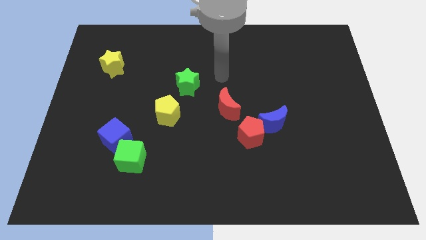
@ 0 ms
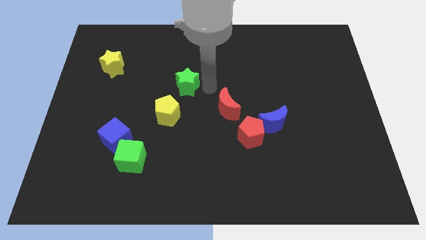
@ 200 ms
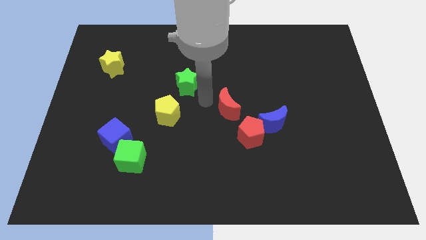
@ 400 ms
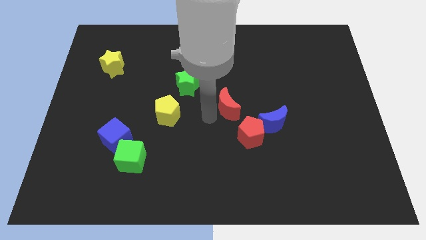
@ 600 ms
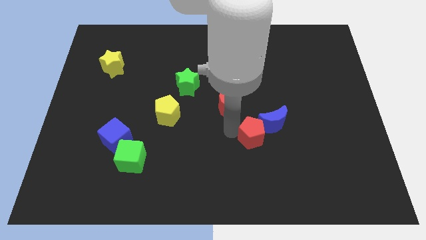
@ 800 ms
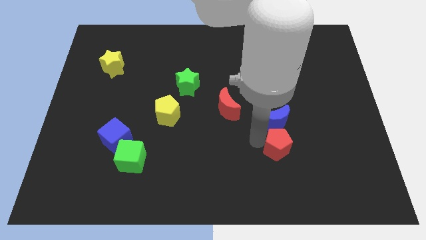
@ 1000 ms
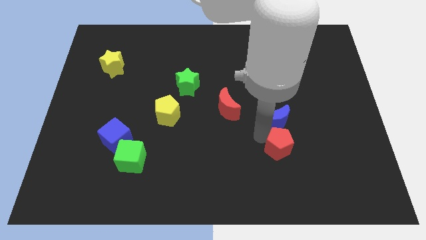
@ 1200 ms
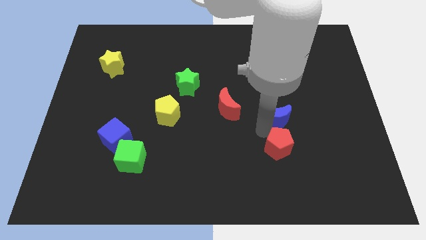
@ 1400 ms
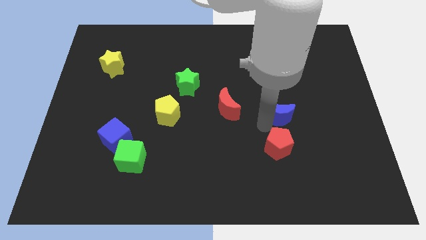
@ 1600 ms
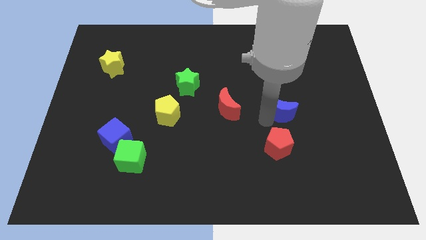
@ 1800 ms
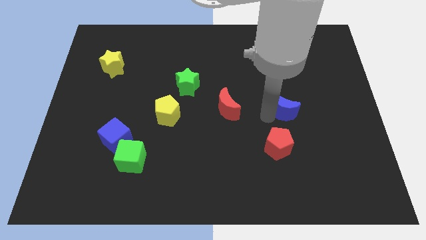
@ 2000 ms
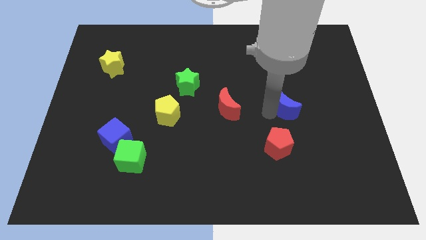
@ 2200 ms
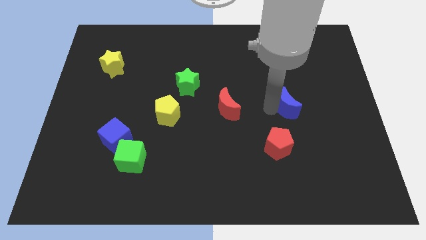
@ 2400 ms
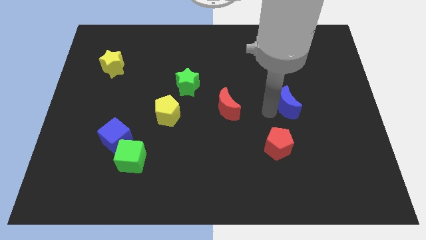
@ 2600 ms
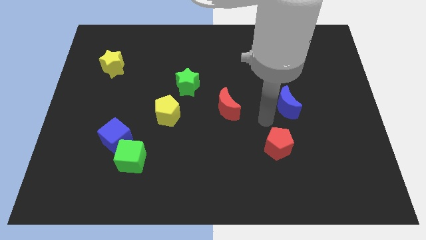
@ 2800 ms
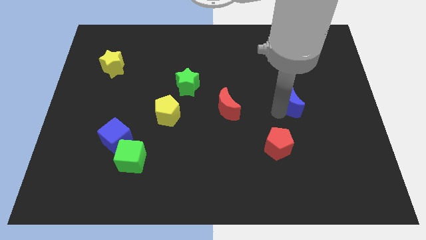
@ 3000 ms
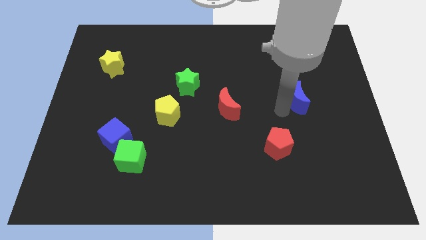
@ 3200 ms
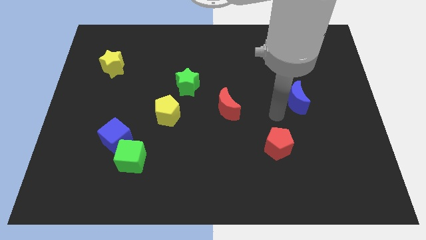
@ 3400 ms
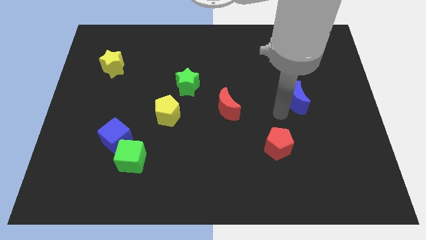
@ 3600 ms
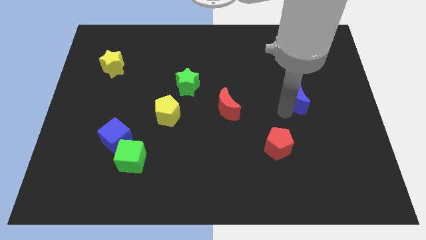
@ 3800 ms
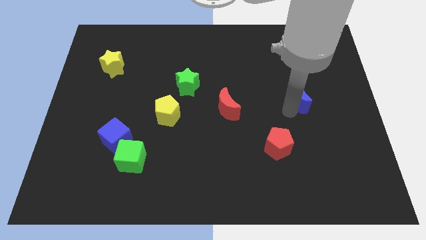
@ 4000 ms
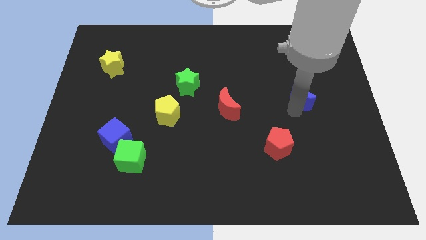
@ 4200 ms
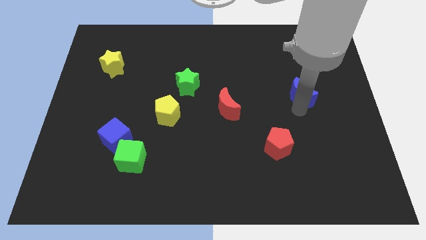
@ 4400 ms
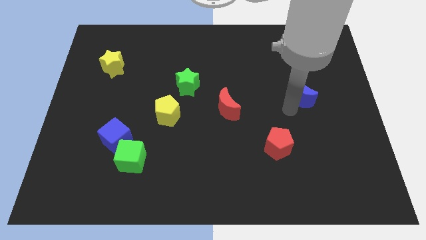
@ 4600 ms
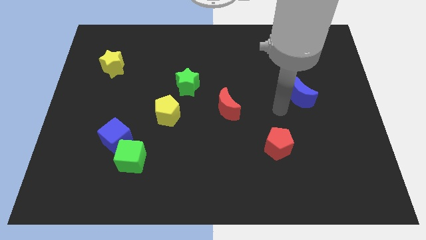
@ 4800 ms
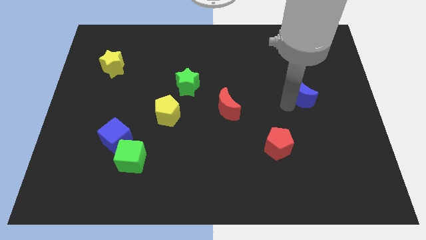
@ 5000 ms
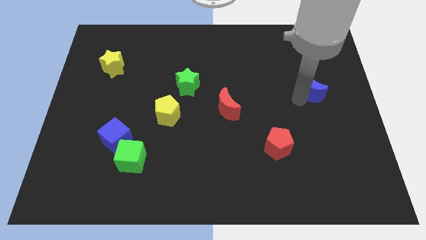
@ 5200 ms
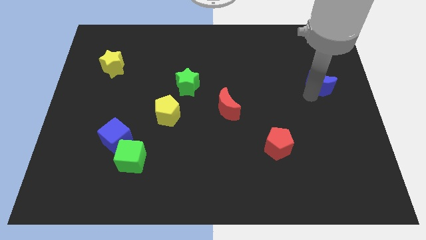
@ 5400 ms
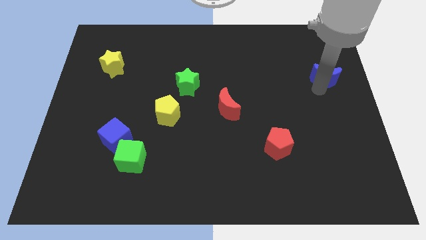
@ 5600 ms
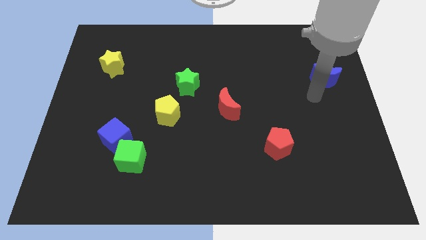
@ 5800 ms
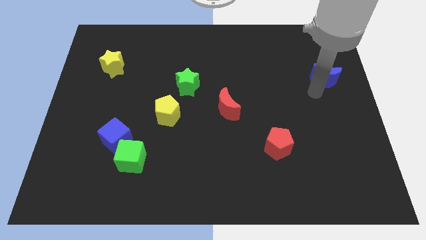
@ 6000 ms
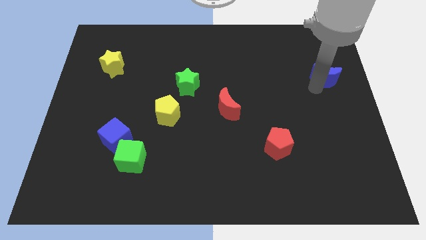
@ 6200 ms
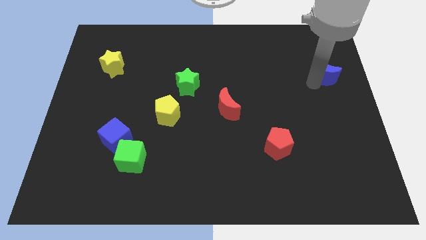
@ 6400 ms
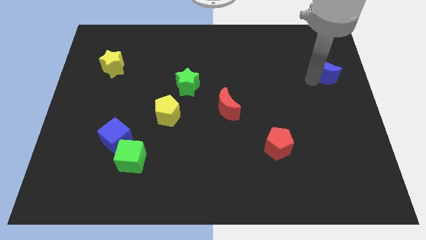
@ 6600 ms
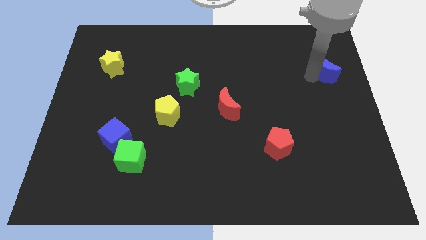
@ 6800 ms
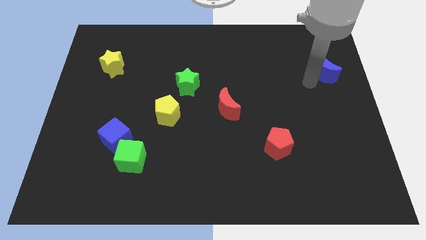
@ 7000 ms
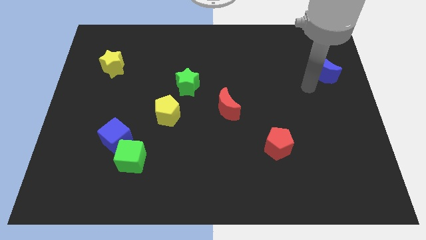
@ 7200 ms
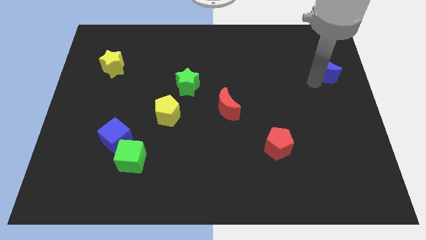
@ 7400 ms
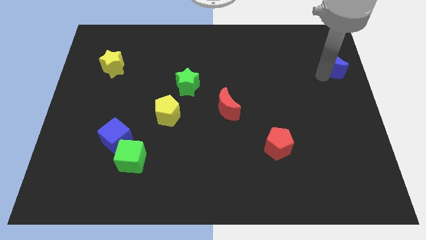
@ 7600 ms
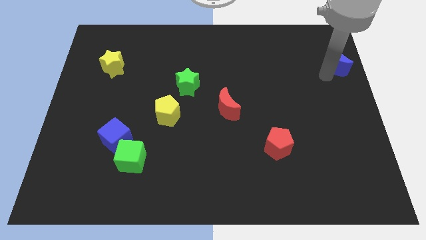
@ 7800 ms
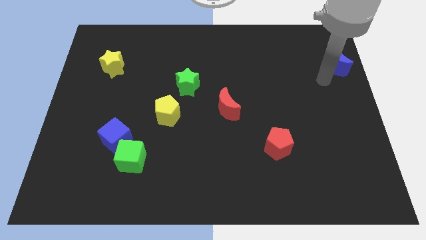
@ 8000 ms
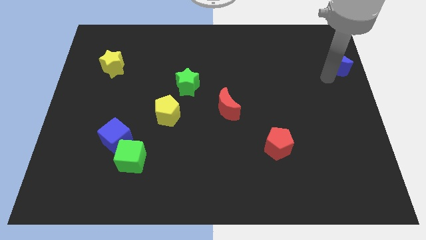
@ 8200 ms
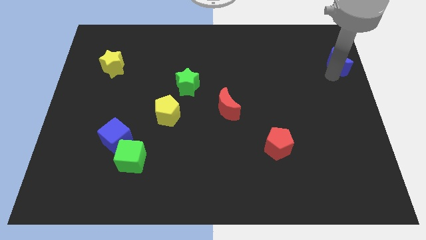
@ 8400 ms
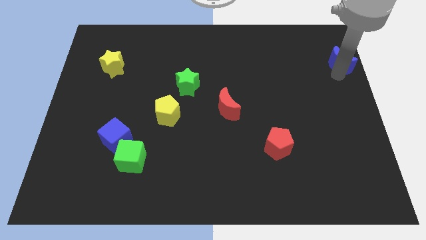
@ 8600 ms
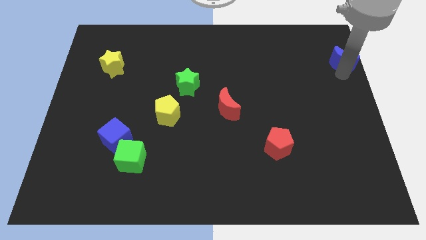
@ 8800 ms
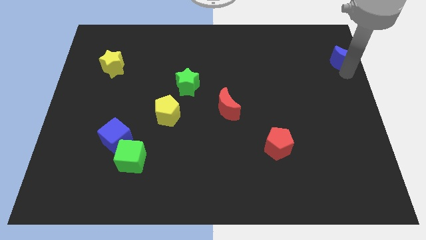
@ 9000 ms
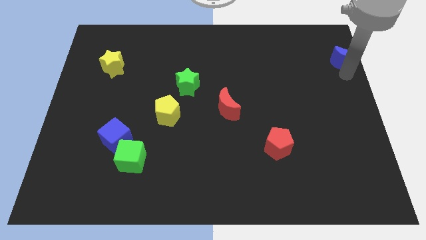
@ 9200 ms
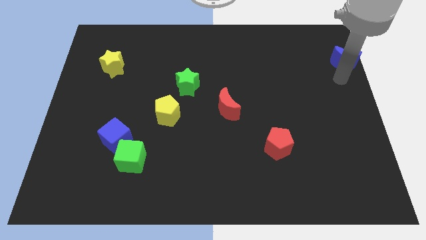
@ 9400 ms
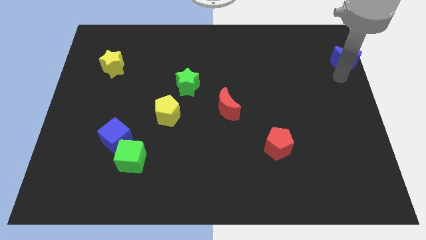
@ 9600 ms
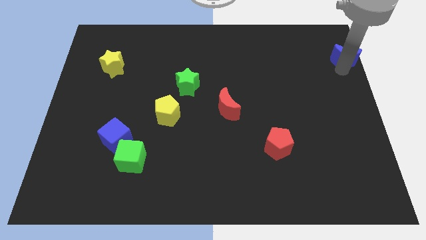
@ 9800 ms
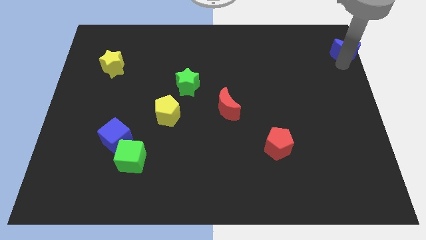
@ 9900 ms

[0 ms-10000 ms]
slide the blue moon to the top right corner

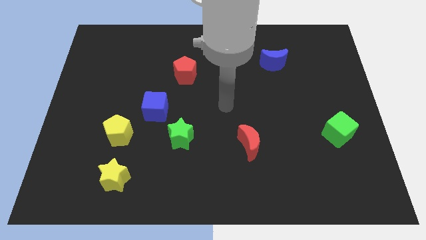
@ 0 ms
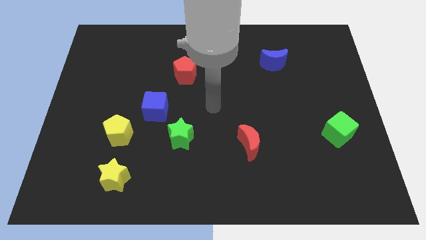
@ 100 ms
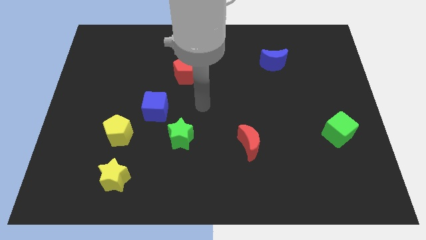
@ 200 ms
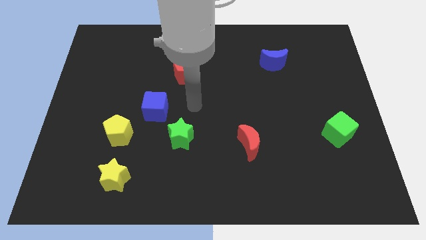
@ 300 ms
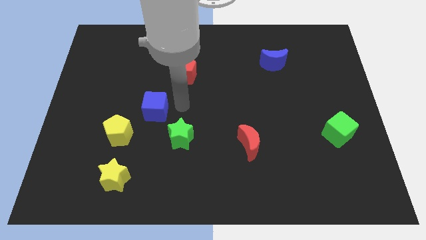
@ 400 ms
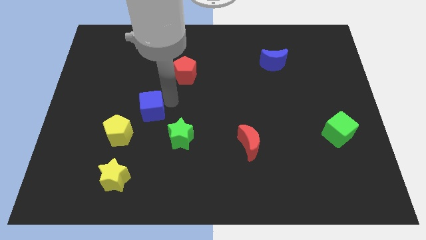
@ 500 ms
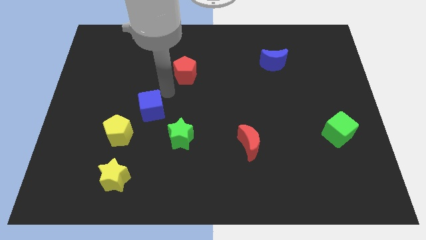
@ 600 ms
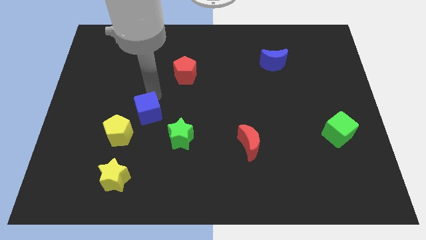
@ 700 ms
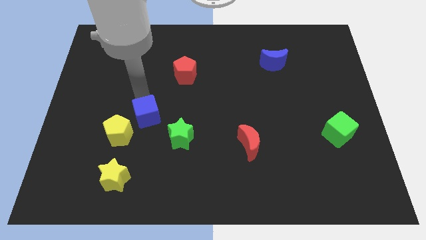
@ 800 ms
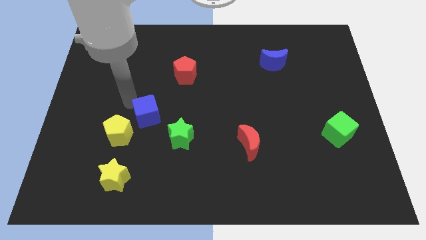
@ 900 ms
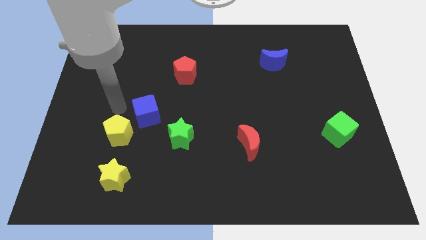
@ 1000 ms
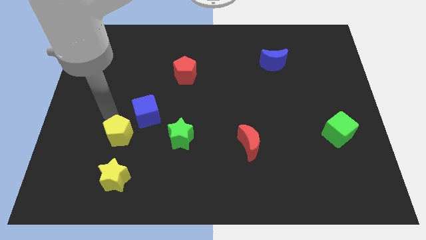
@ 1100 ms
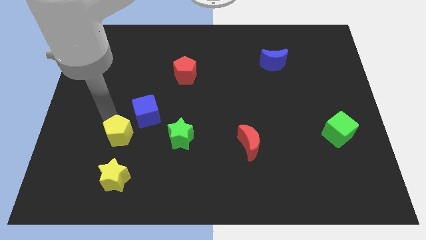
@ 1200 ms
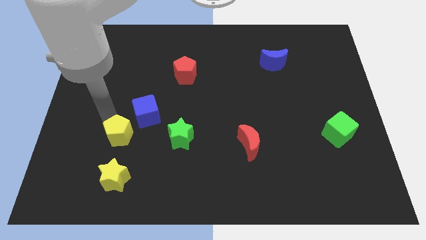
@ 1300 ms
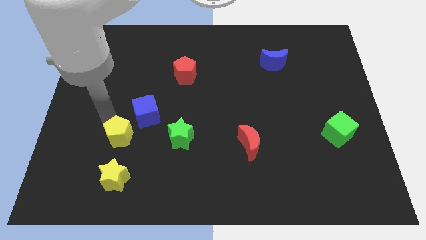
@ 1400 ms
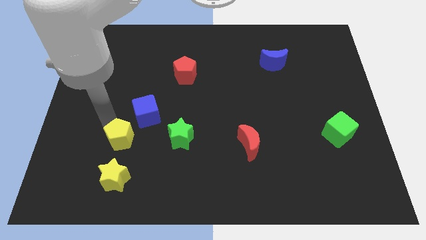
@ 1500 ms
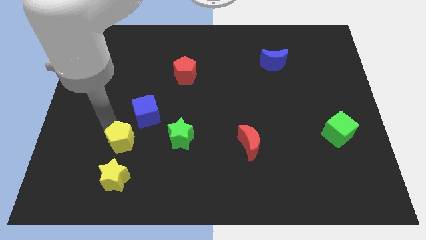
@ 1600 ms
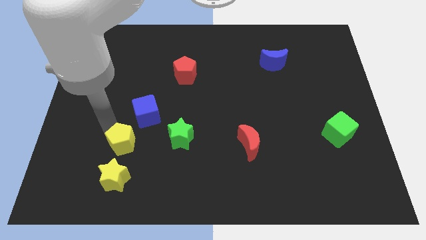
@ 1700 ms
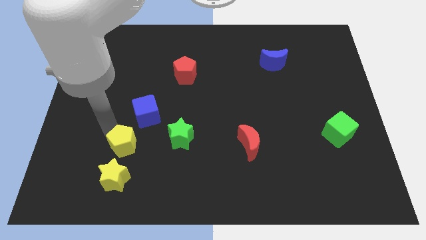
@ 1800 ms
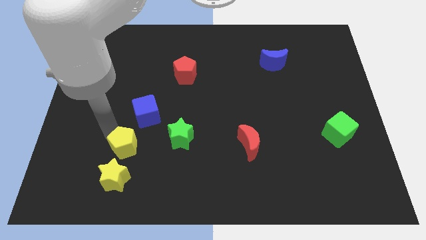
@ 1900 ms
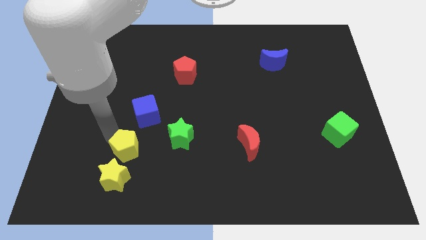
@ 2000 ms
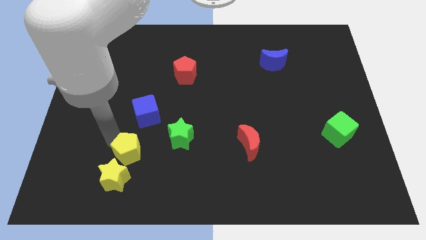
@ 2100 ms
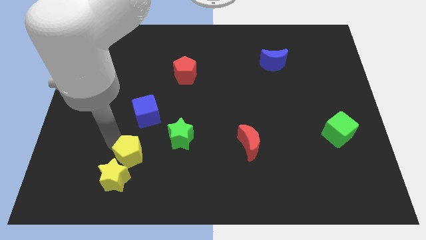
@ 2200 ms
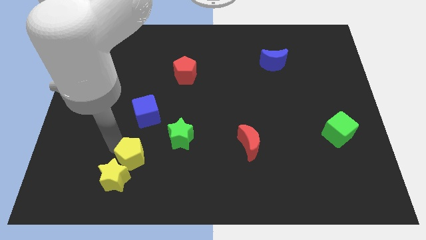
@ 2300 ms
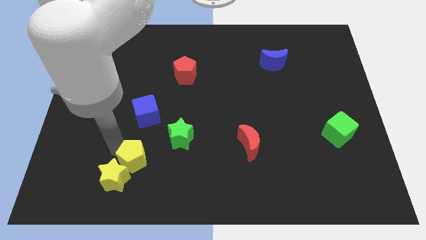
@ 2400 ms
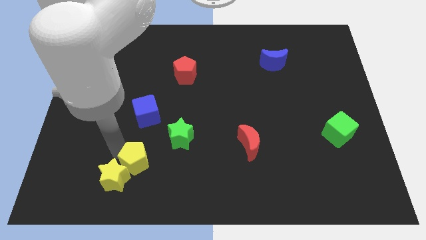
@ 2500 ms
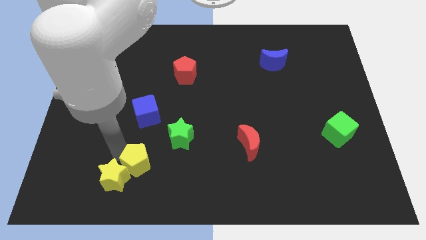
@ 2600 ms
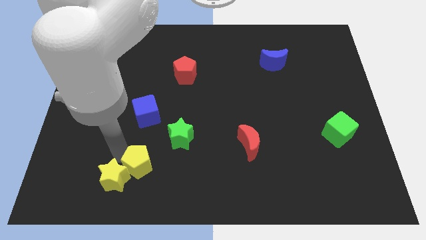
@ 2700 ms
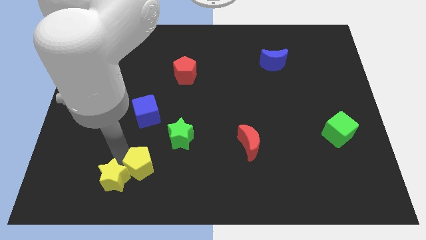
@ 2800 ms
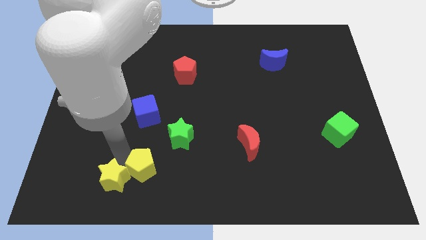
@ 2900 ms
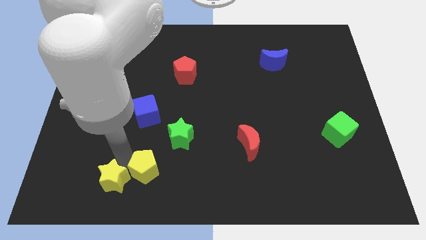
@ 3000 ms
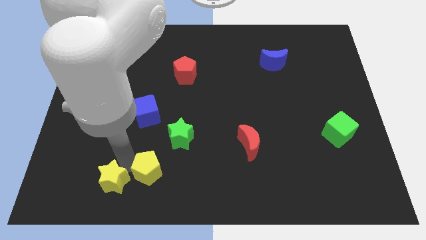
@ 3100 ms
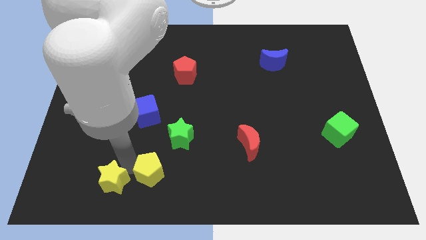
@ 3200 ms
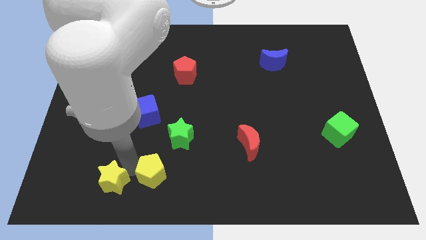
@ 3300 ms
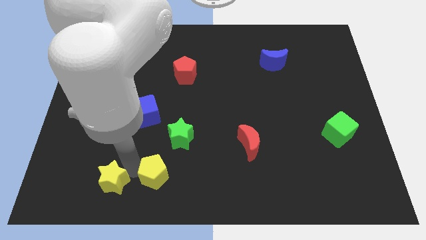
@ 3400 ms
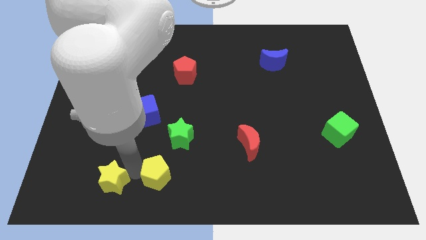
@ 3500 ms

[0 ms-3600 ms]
push the yellow pentagon to the bottom
